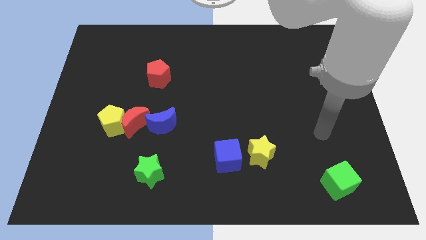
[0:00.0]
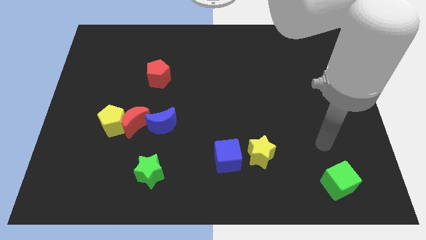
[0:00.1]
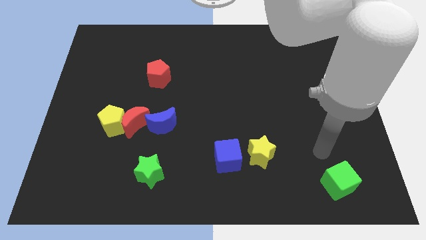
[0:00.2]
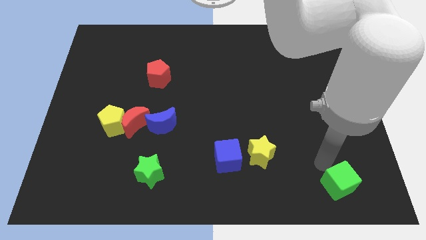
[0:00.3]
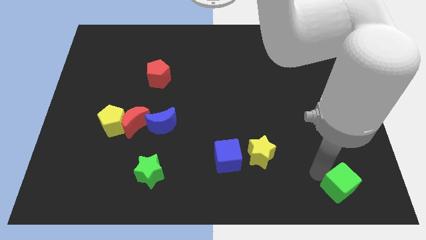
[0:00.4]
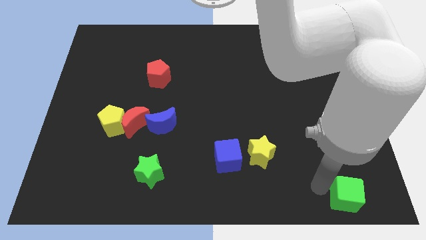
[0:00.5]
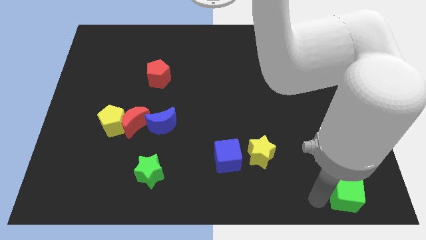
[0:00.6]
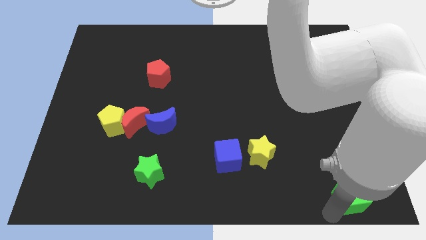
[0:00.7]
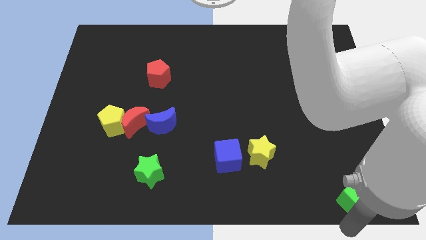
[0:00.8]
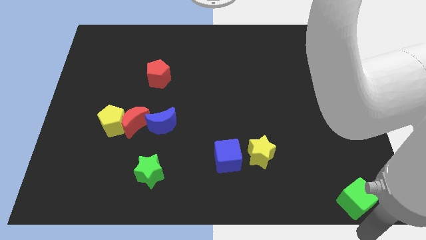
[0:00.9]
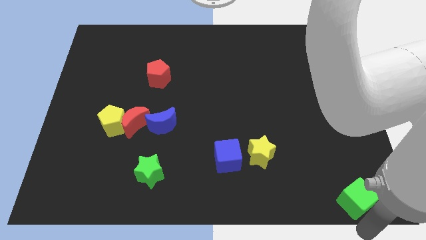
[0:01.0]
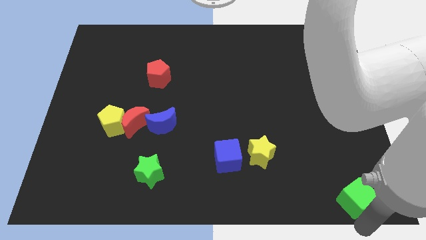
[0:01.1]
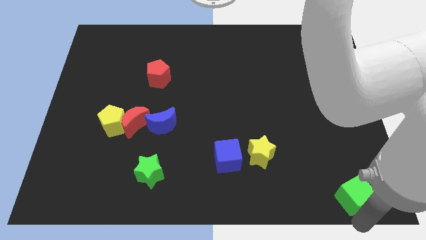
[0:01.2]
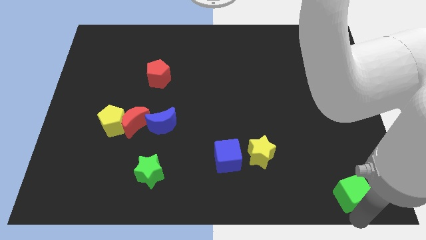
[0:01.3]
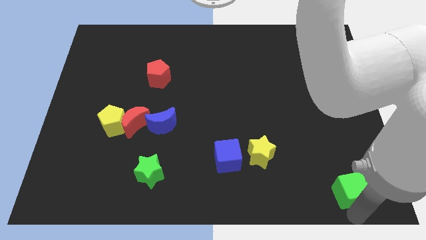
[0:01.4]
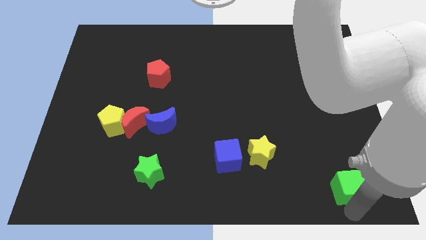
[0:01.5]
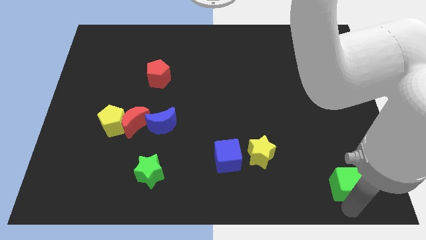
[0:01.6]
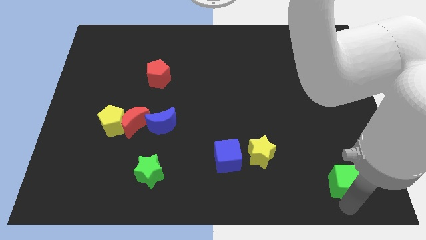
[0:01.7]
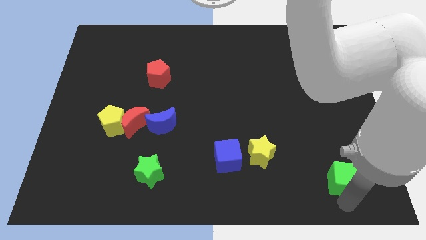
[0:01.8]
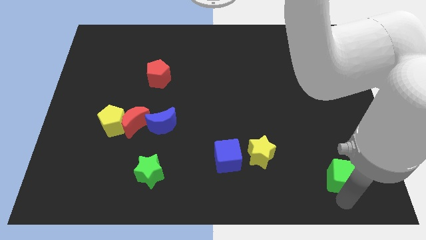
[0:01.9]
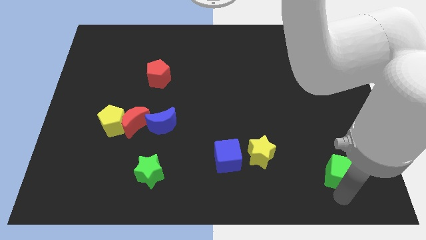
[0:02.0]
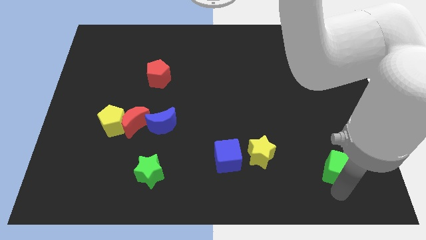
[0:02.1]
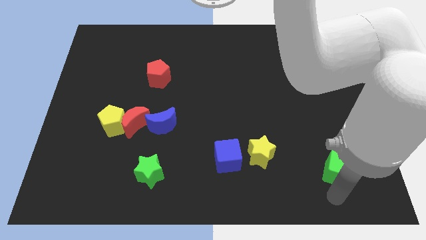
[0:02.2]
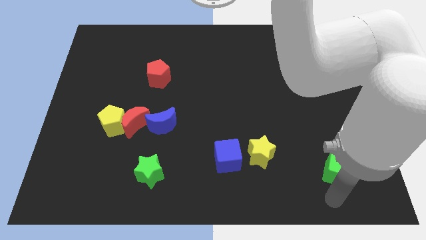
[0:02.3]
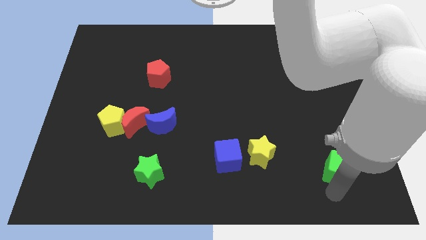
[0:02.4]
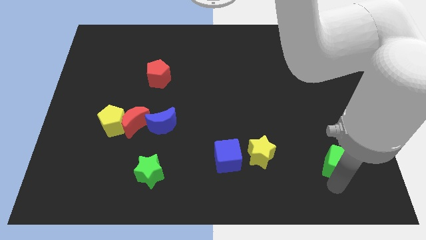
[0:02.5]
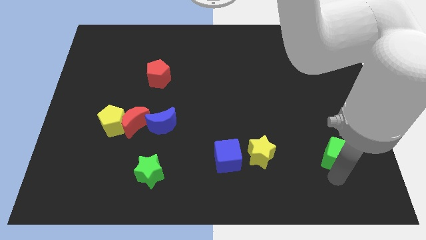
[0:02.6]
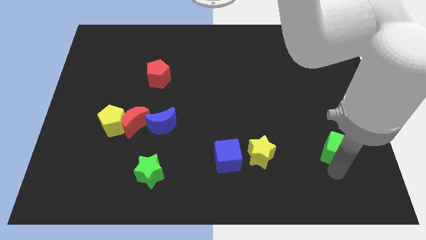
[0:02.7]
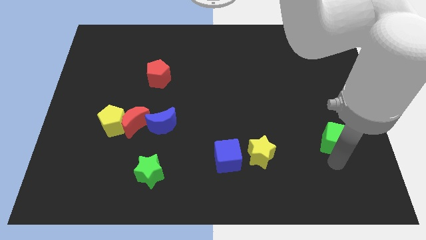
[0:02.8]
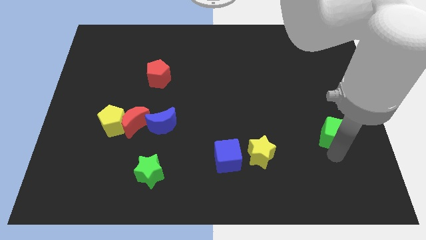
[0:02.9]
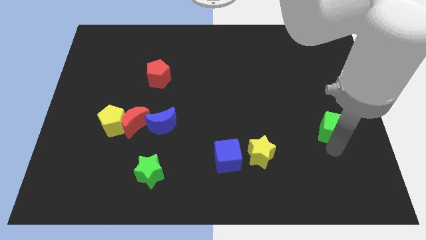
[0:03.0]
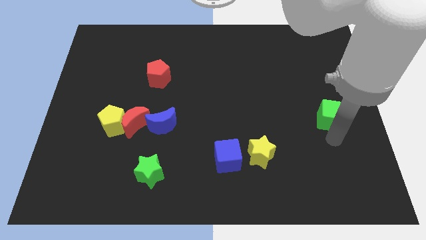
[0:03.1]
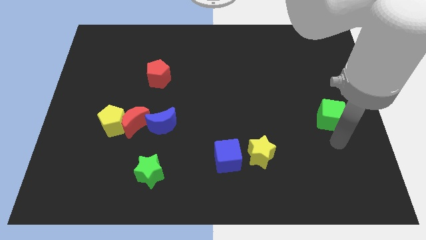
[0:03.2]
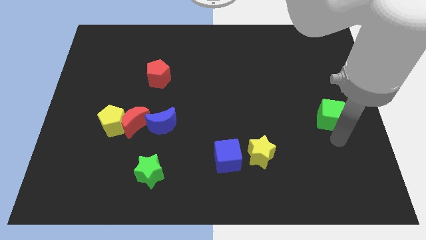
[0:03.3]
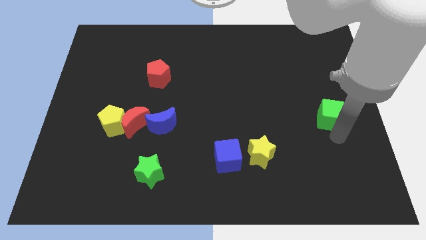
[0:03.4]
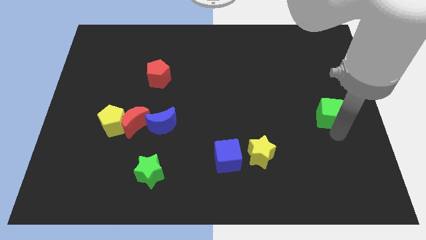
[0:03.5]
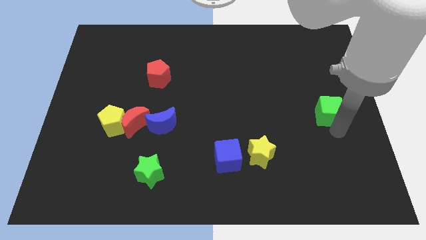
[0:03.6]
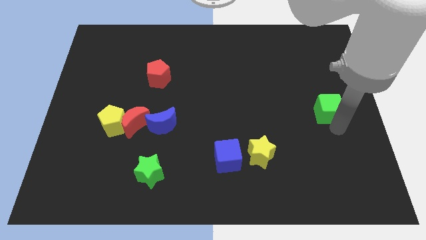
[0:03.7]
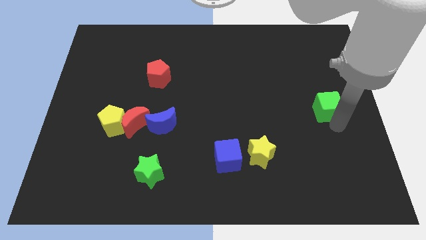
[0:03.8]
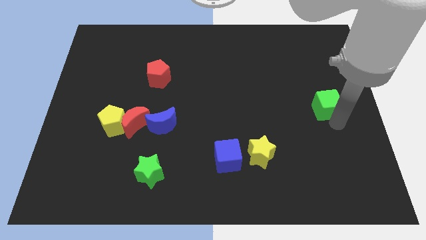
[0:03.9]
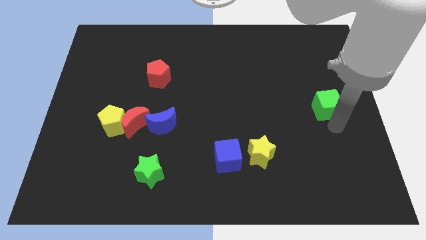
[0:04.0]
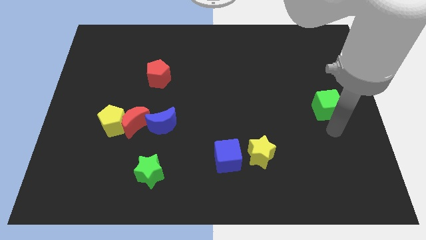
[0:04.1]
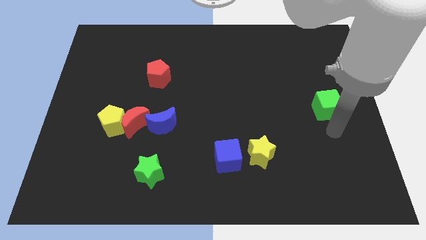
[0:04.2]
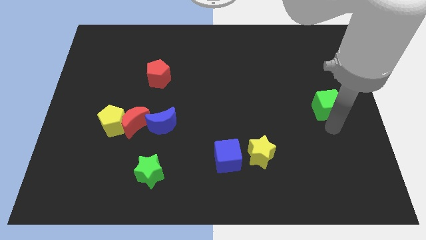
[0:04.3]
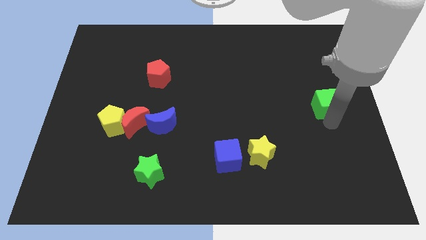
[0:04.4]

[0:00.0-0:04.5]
move the green cube up

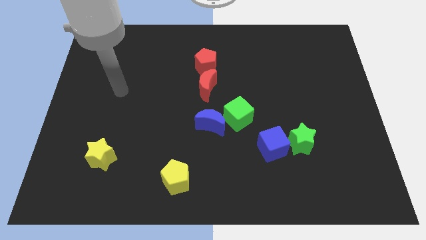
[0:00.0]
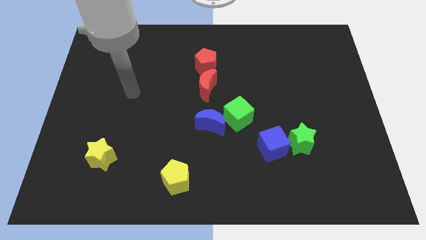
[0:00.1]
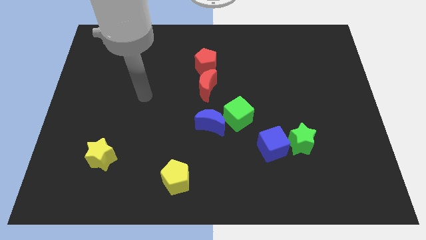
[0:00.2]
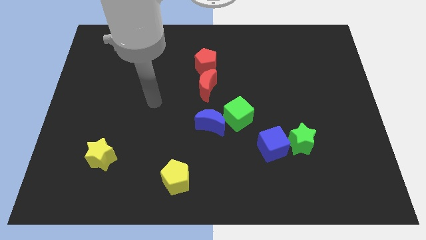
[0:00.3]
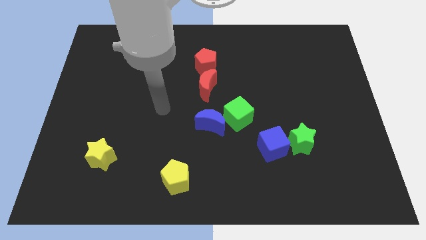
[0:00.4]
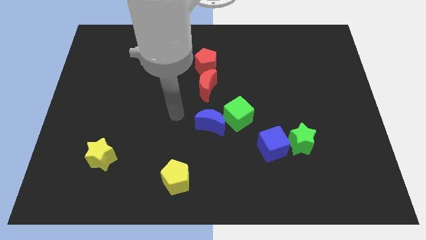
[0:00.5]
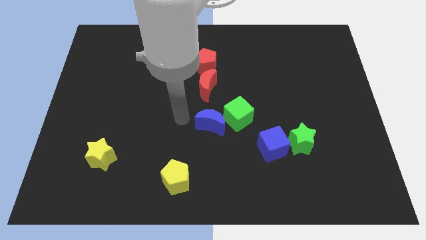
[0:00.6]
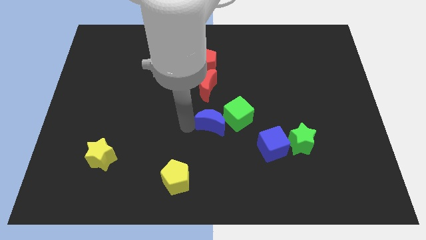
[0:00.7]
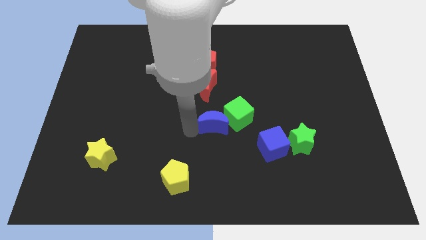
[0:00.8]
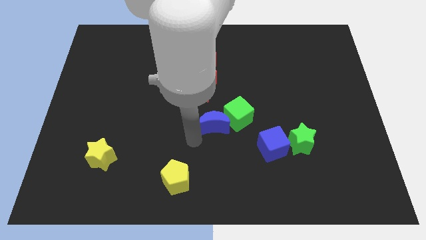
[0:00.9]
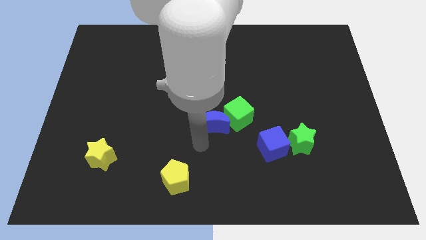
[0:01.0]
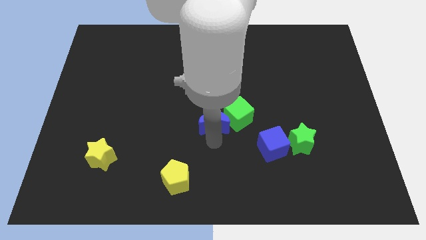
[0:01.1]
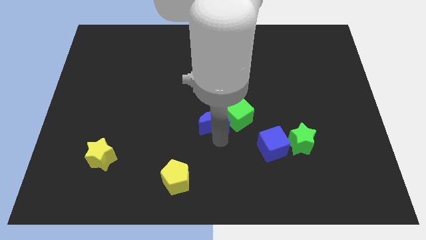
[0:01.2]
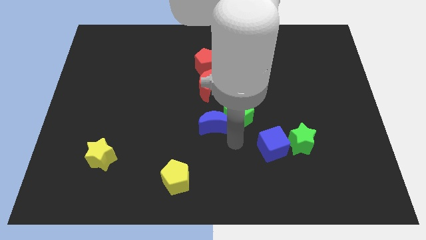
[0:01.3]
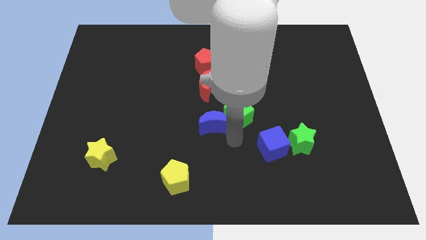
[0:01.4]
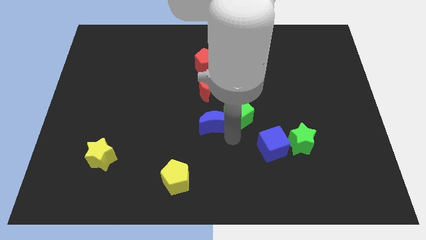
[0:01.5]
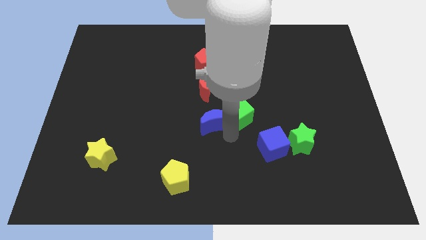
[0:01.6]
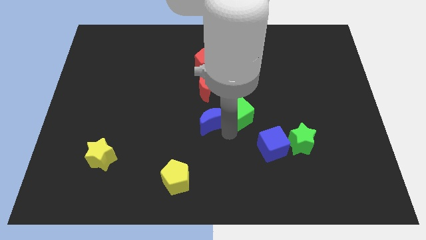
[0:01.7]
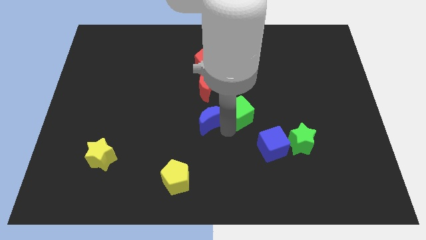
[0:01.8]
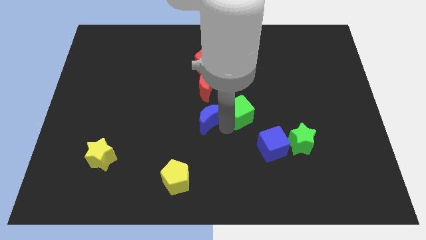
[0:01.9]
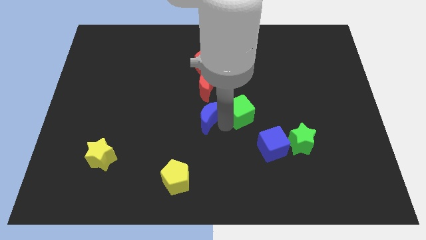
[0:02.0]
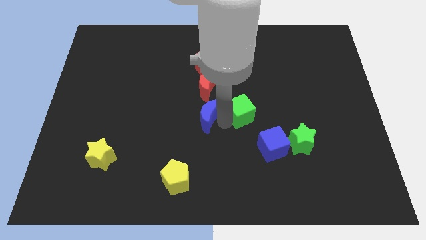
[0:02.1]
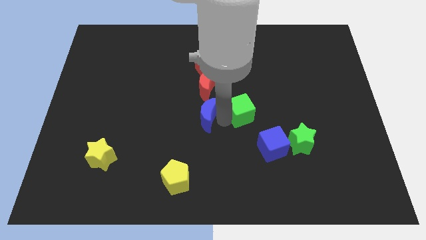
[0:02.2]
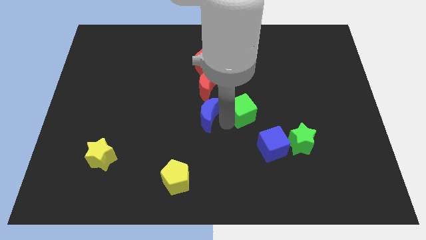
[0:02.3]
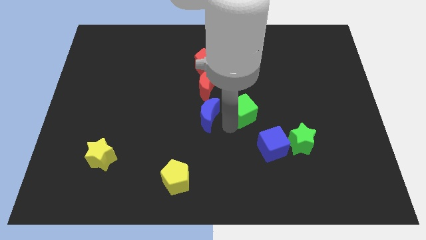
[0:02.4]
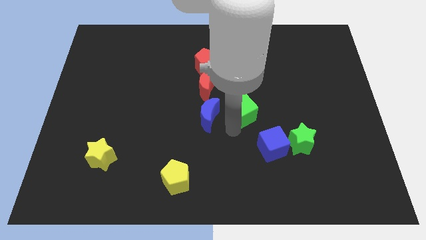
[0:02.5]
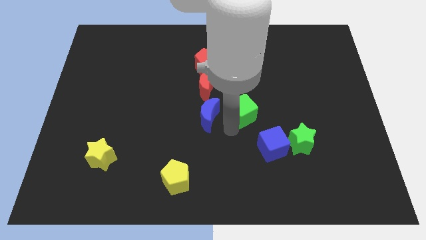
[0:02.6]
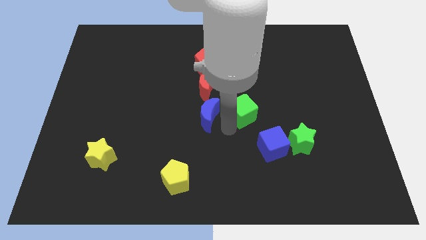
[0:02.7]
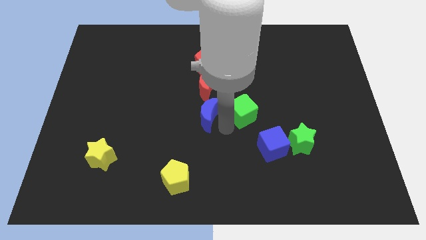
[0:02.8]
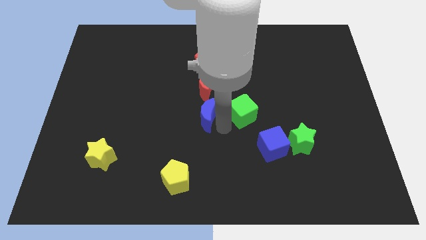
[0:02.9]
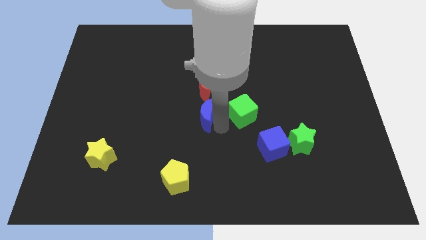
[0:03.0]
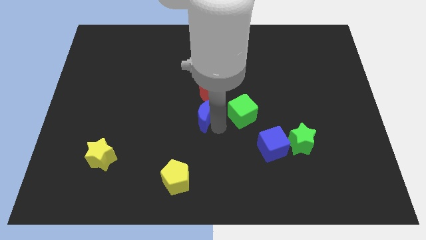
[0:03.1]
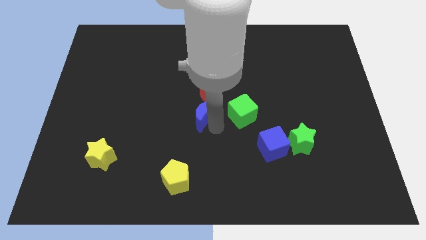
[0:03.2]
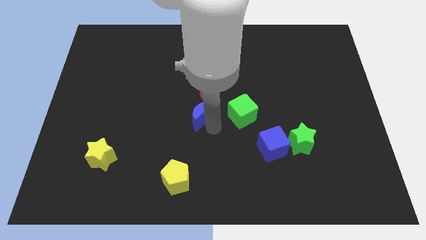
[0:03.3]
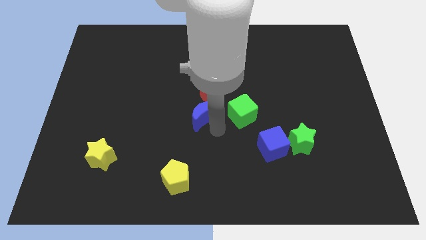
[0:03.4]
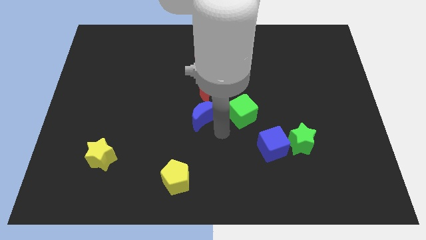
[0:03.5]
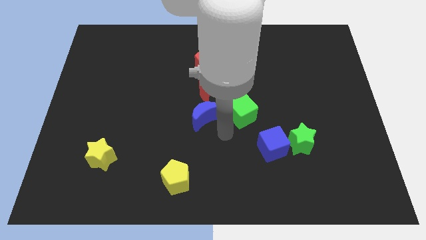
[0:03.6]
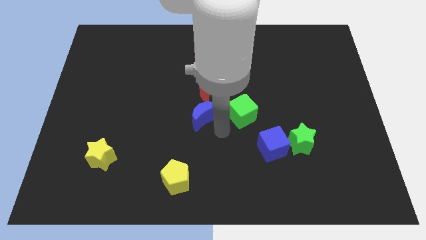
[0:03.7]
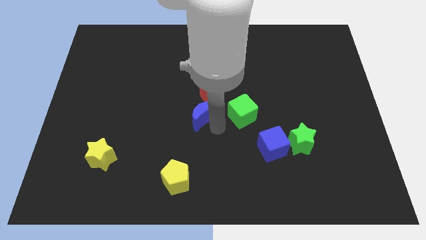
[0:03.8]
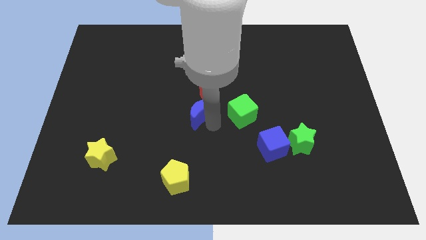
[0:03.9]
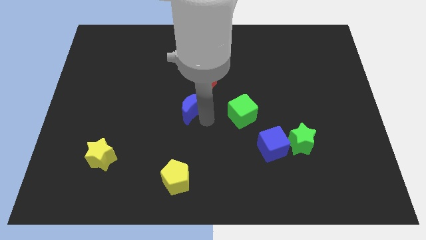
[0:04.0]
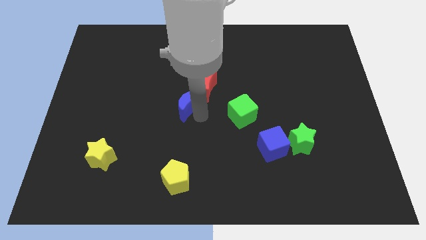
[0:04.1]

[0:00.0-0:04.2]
slide the blue moon up and then to the left a little bit
